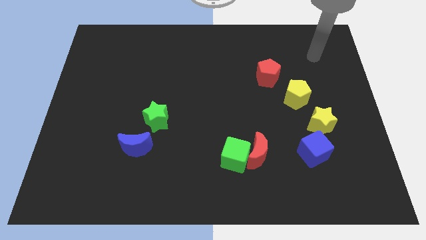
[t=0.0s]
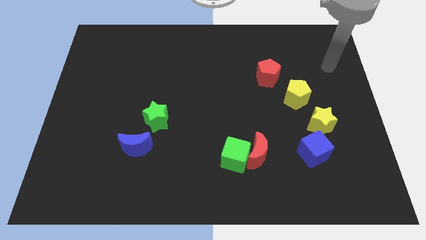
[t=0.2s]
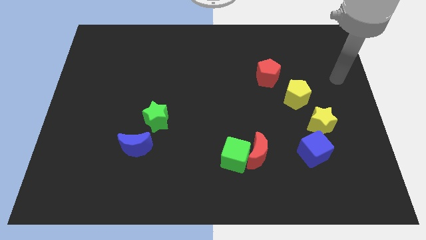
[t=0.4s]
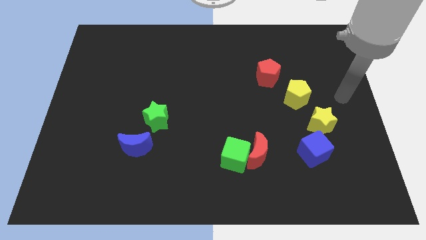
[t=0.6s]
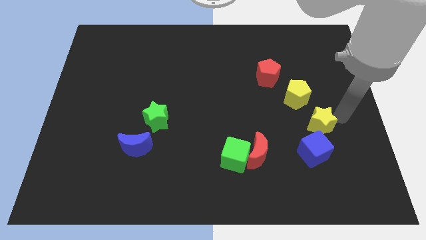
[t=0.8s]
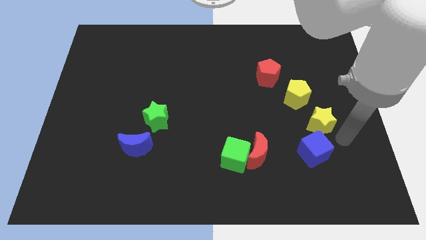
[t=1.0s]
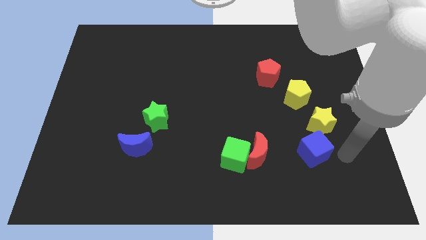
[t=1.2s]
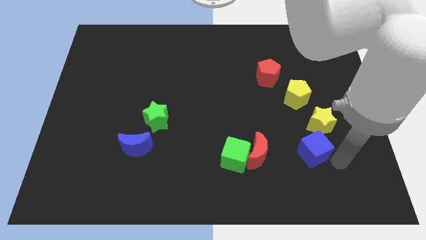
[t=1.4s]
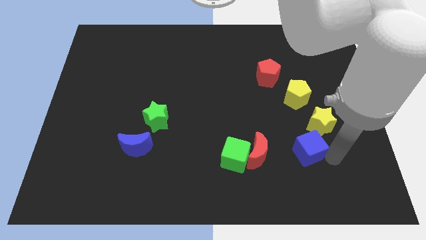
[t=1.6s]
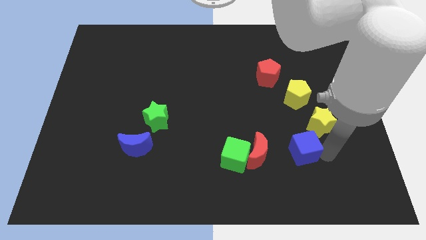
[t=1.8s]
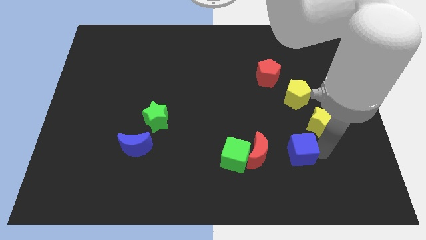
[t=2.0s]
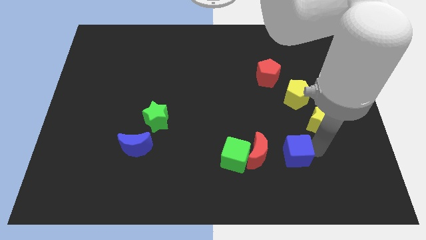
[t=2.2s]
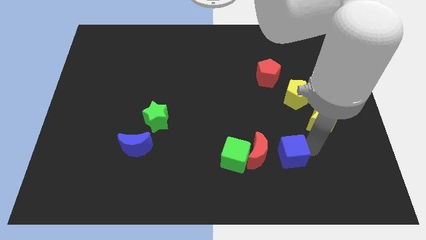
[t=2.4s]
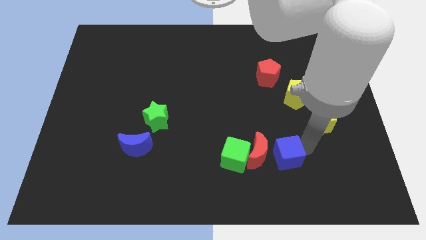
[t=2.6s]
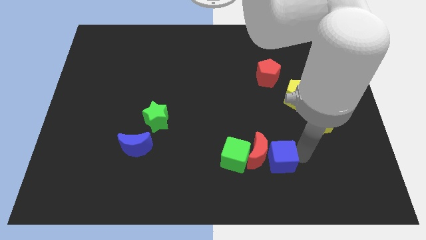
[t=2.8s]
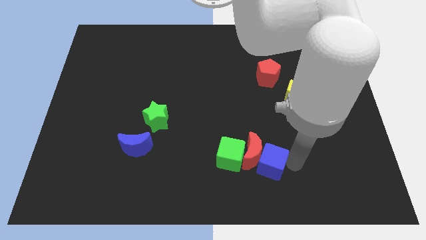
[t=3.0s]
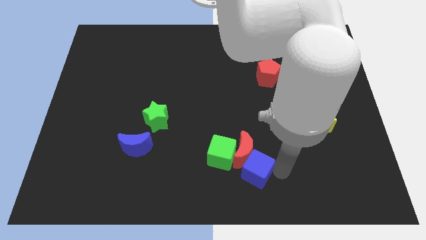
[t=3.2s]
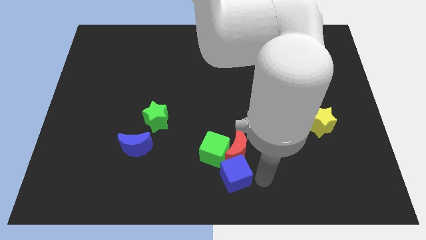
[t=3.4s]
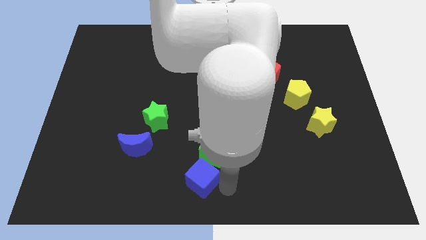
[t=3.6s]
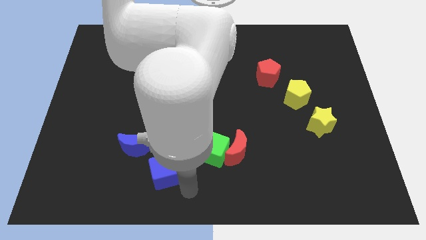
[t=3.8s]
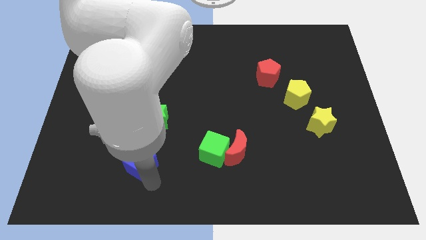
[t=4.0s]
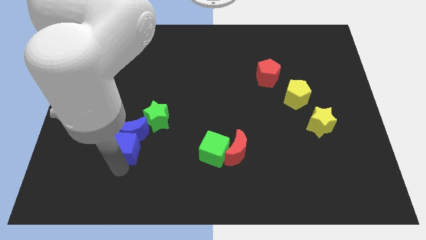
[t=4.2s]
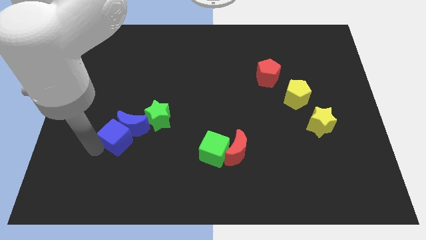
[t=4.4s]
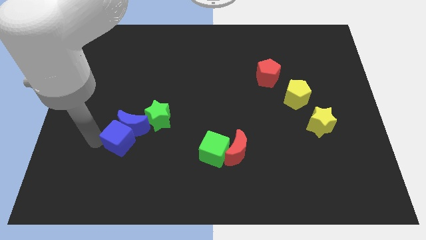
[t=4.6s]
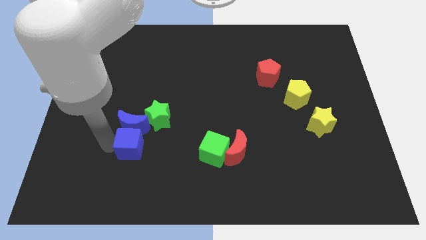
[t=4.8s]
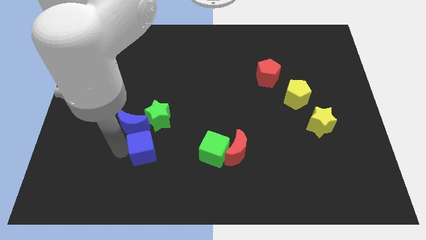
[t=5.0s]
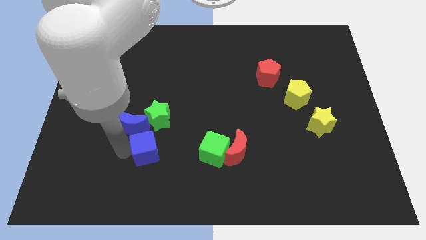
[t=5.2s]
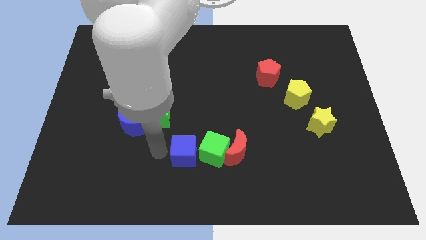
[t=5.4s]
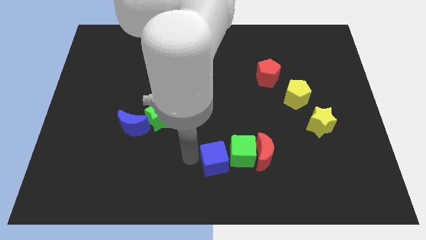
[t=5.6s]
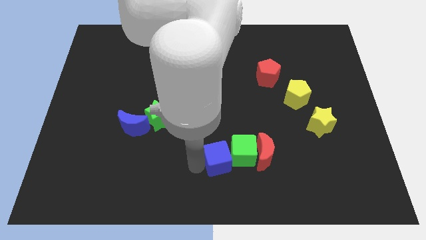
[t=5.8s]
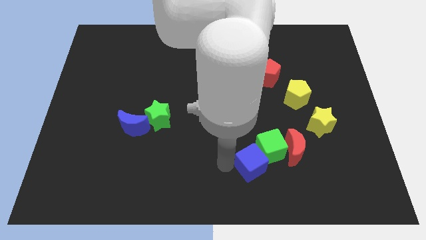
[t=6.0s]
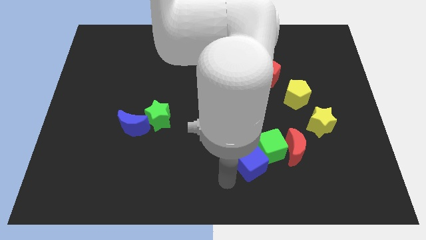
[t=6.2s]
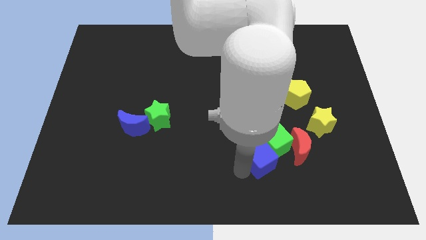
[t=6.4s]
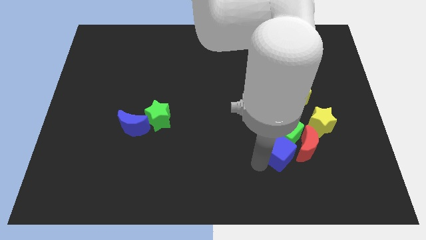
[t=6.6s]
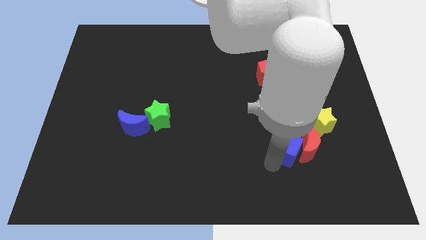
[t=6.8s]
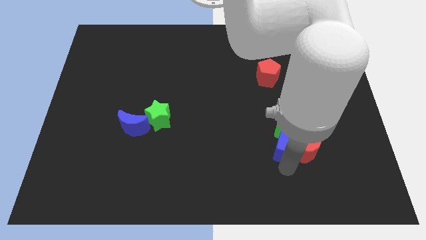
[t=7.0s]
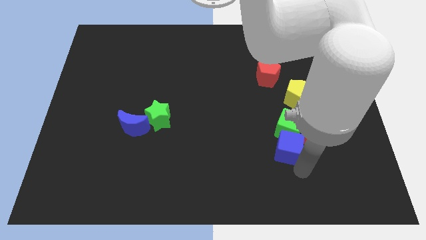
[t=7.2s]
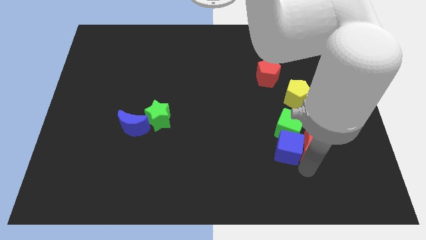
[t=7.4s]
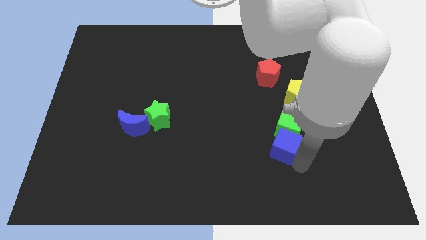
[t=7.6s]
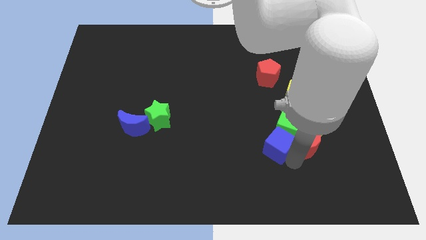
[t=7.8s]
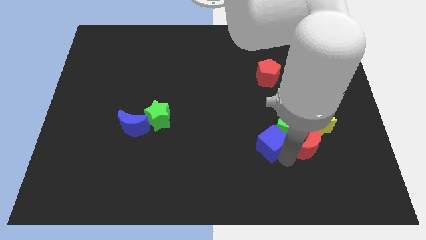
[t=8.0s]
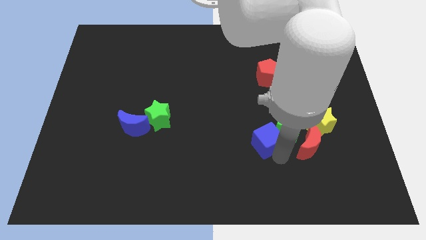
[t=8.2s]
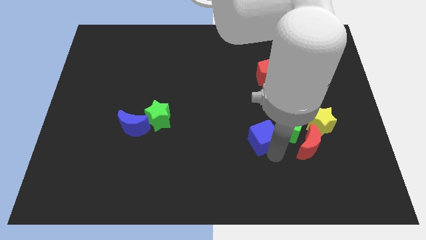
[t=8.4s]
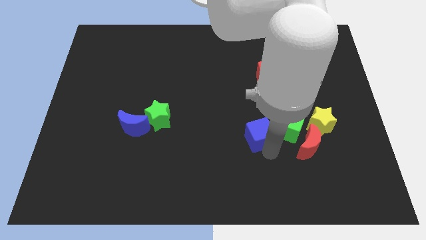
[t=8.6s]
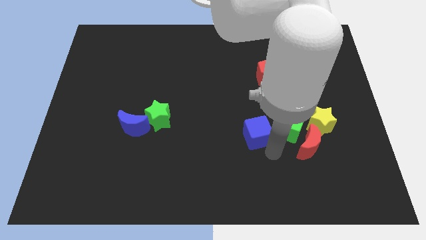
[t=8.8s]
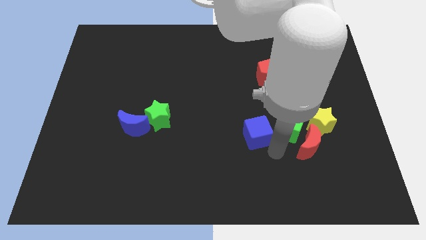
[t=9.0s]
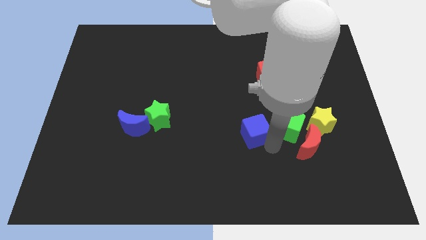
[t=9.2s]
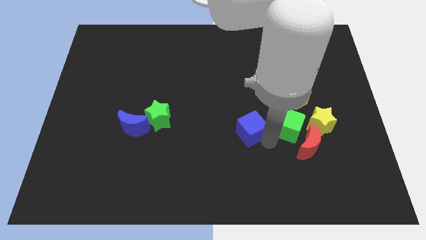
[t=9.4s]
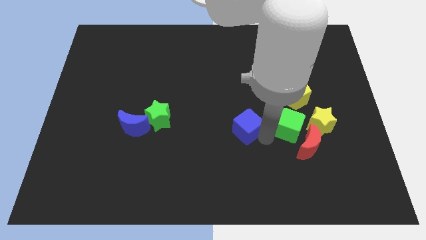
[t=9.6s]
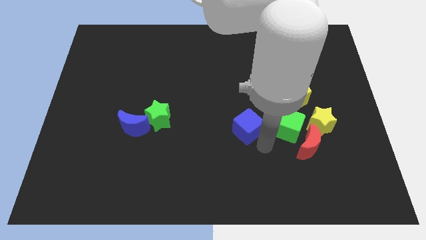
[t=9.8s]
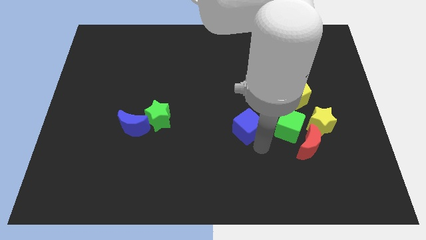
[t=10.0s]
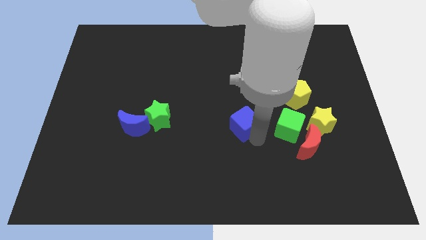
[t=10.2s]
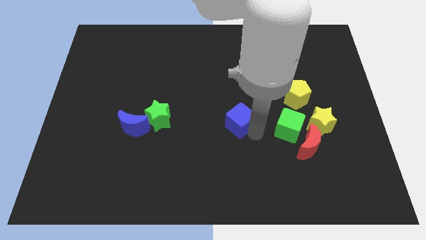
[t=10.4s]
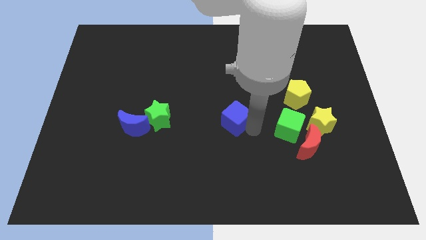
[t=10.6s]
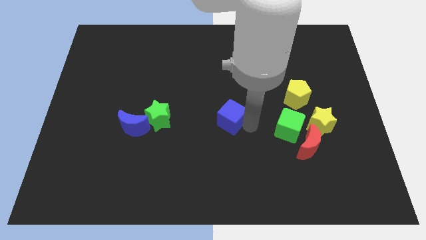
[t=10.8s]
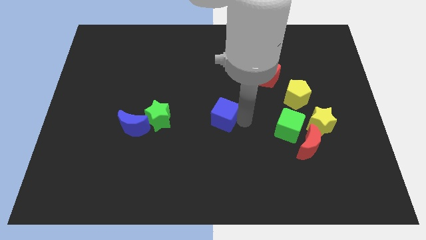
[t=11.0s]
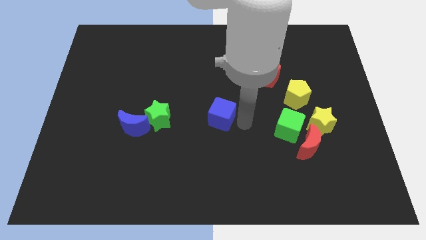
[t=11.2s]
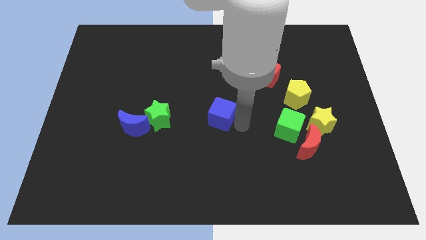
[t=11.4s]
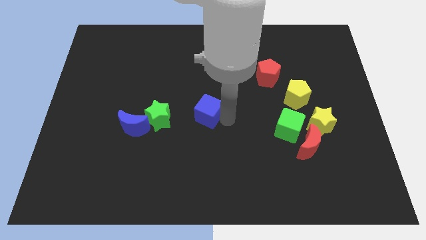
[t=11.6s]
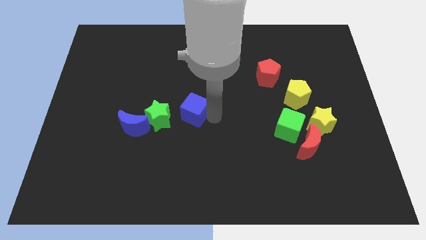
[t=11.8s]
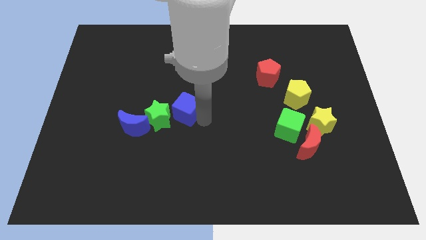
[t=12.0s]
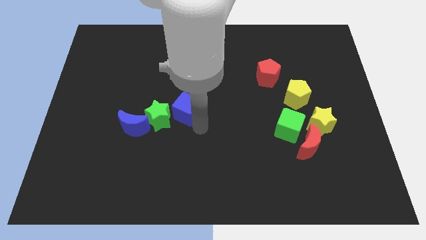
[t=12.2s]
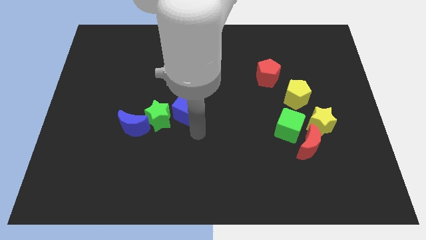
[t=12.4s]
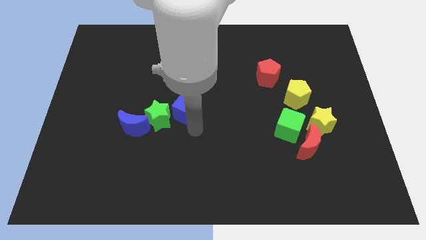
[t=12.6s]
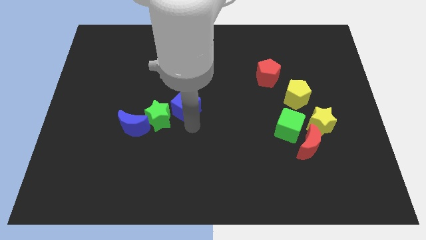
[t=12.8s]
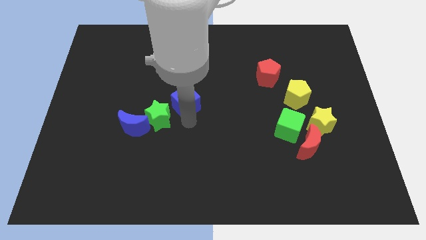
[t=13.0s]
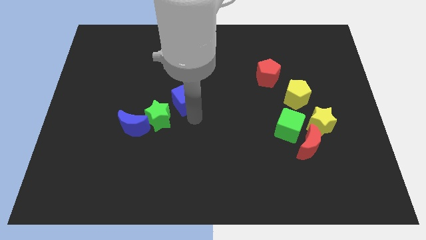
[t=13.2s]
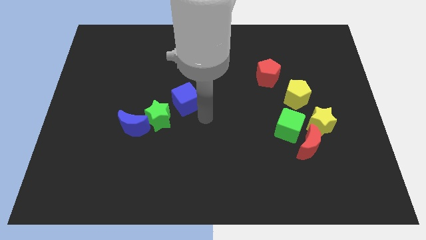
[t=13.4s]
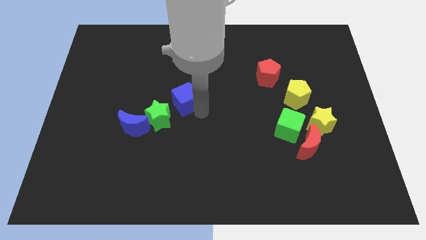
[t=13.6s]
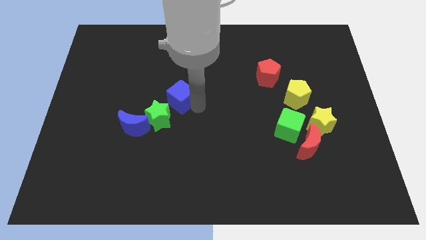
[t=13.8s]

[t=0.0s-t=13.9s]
move the blue cube to the top side of the green star

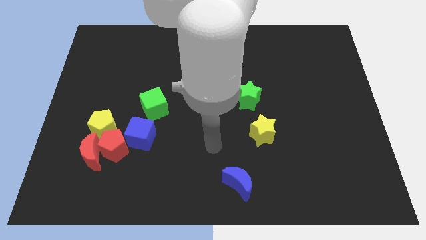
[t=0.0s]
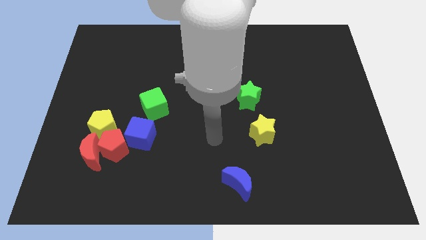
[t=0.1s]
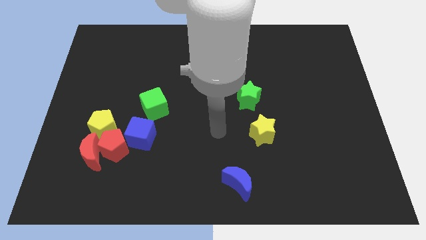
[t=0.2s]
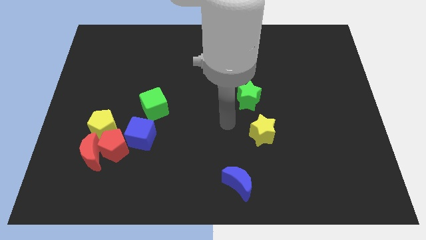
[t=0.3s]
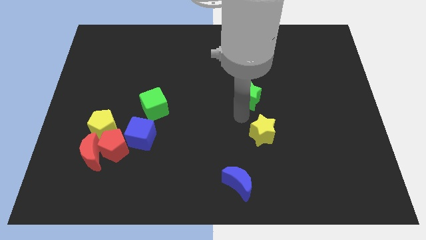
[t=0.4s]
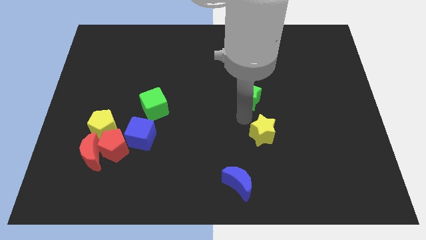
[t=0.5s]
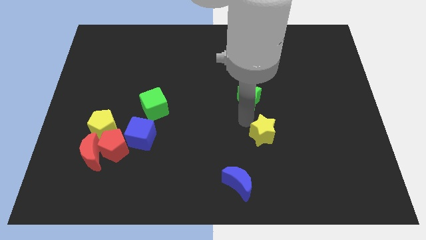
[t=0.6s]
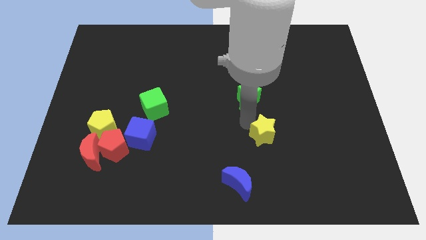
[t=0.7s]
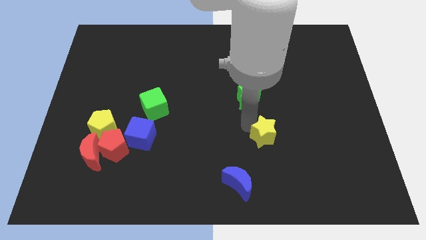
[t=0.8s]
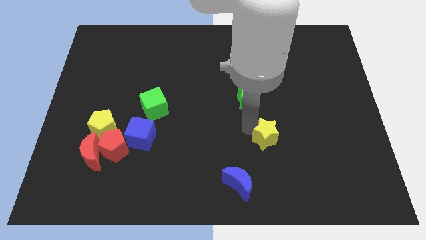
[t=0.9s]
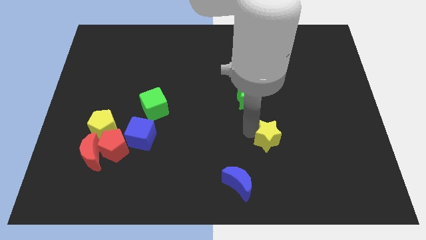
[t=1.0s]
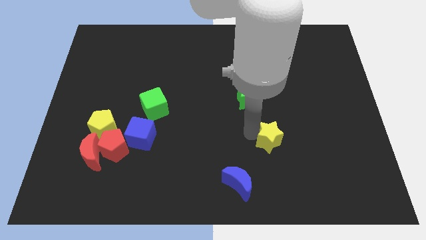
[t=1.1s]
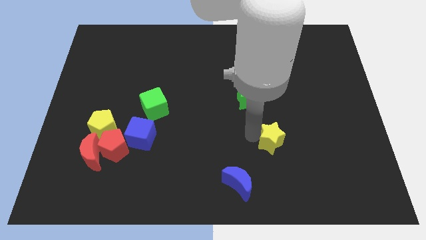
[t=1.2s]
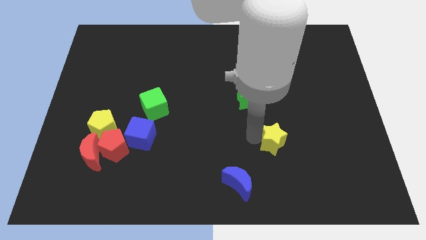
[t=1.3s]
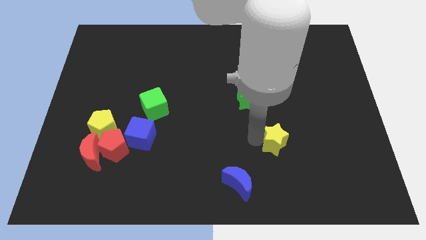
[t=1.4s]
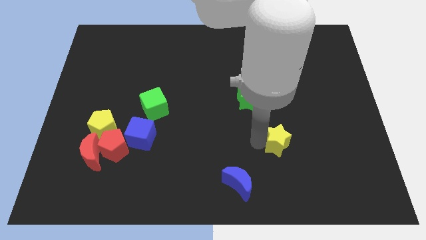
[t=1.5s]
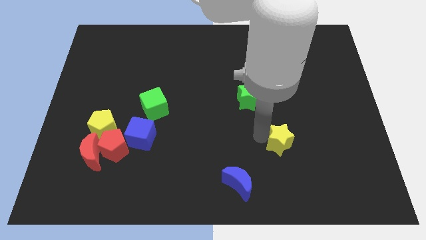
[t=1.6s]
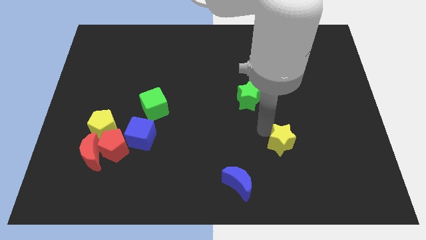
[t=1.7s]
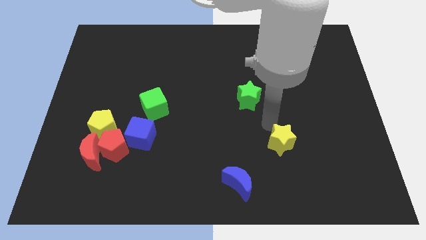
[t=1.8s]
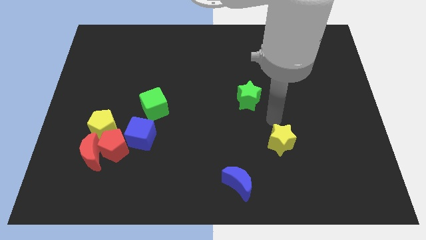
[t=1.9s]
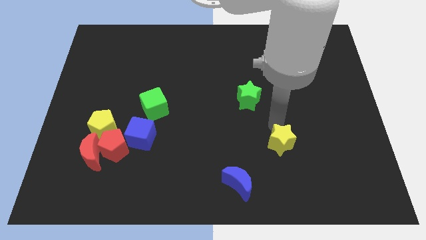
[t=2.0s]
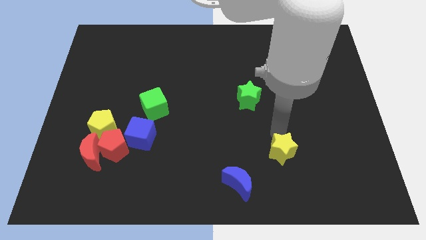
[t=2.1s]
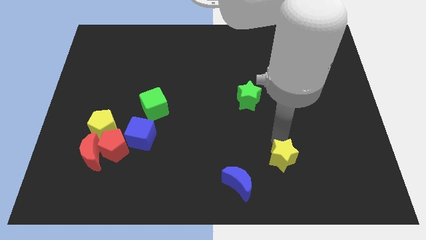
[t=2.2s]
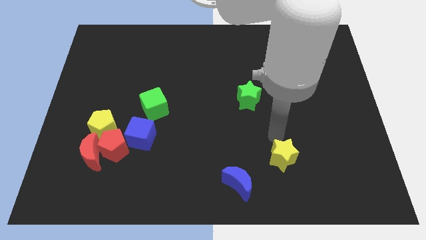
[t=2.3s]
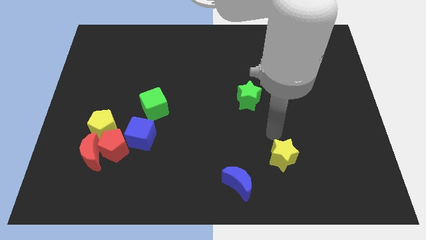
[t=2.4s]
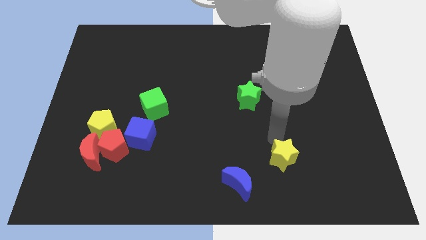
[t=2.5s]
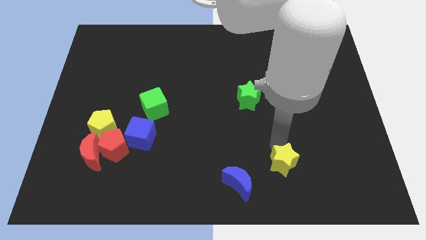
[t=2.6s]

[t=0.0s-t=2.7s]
slide the yellow star just right of the blue moon
